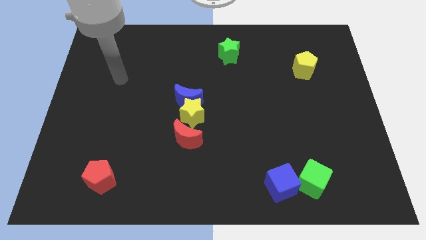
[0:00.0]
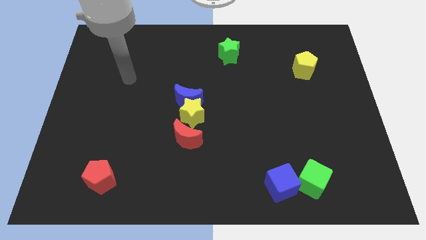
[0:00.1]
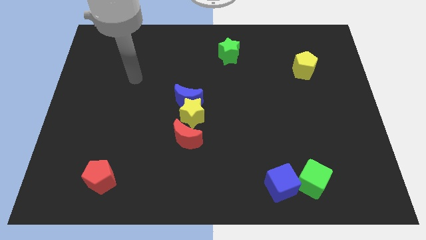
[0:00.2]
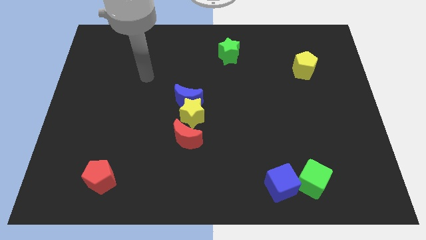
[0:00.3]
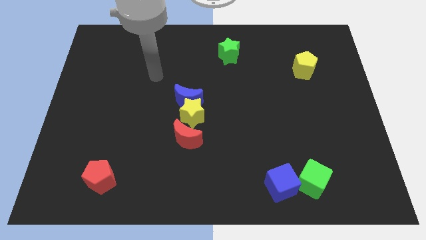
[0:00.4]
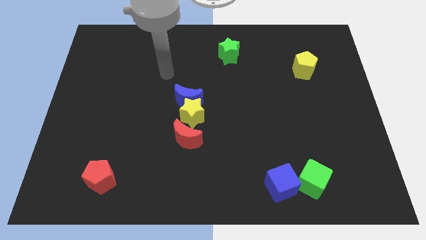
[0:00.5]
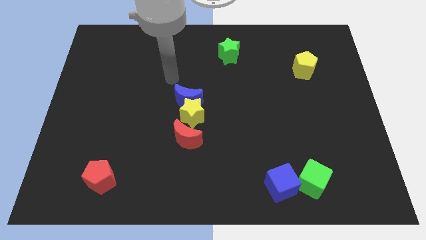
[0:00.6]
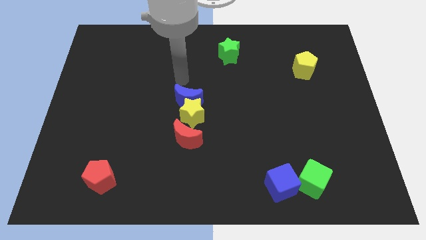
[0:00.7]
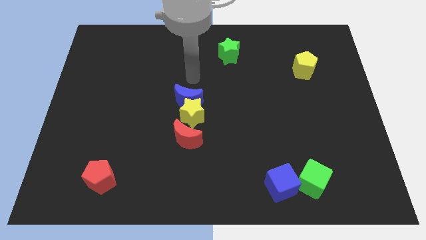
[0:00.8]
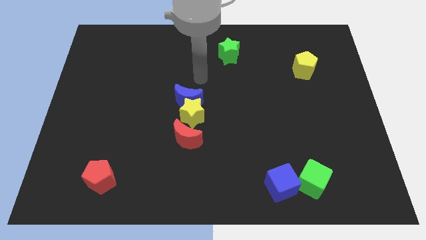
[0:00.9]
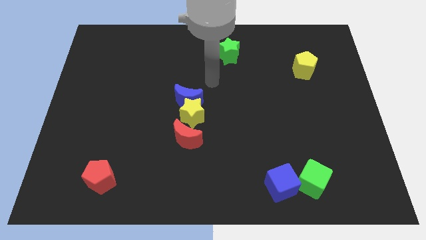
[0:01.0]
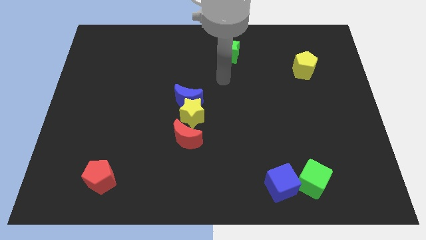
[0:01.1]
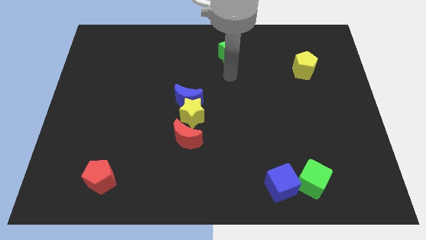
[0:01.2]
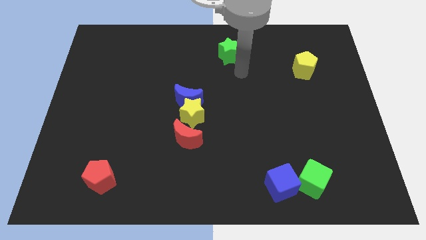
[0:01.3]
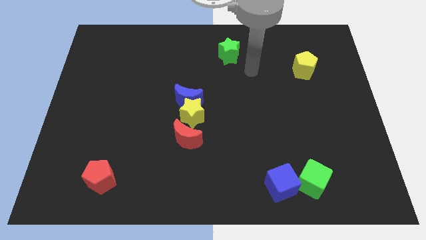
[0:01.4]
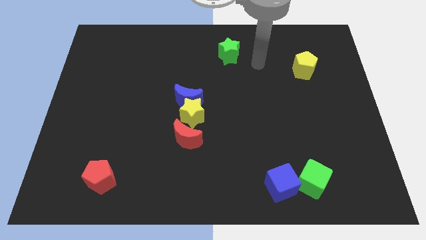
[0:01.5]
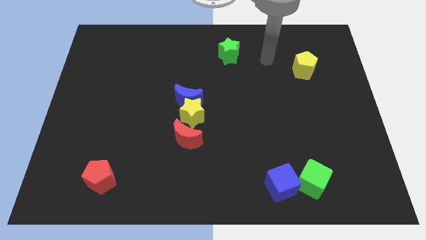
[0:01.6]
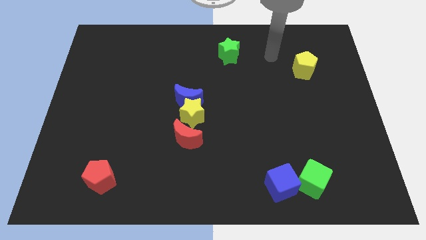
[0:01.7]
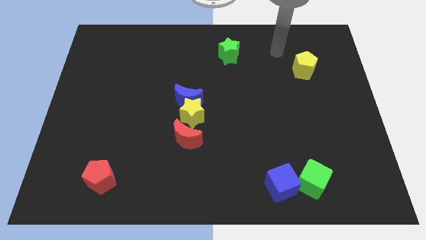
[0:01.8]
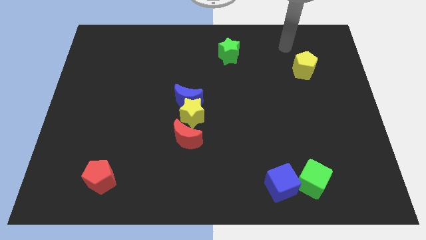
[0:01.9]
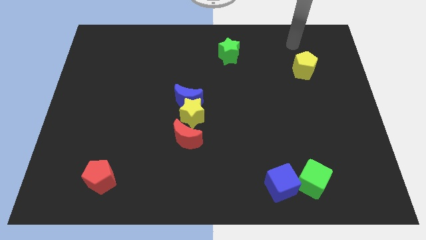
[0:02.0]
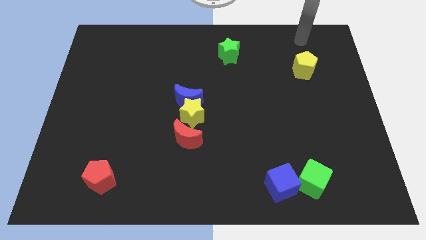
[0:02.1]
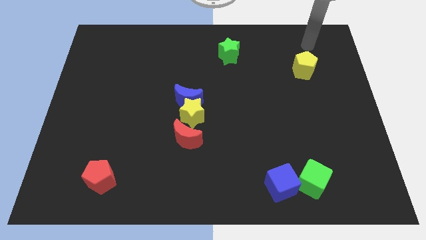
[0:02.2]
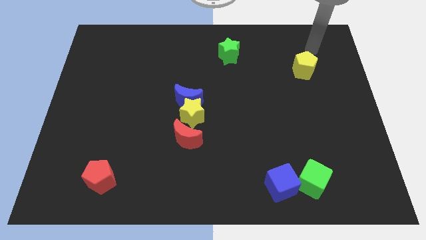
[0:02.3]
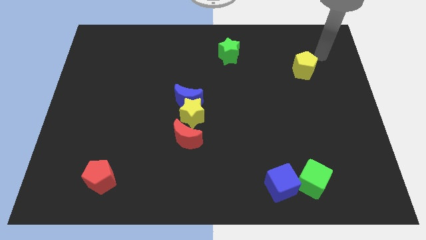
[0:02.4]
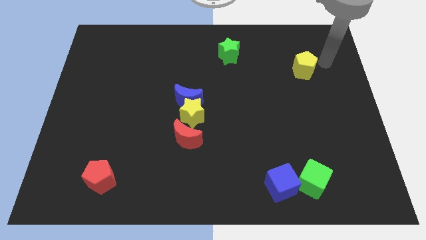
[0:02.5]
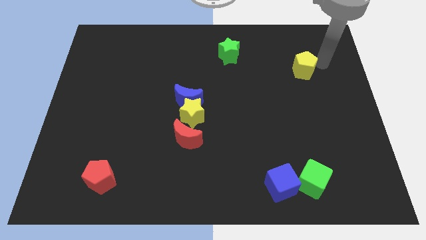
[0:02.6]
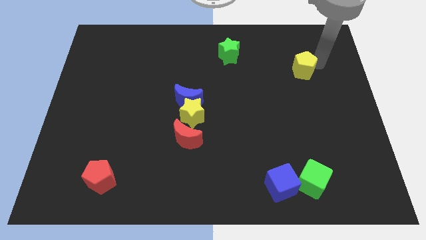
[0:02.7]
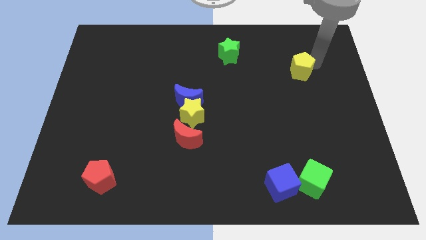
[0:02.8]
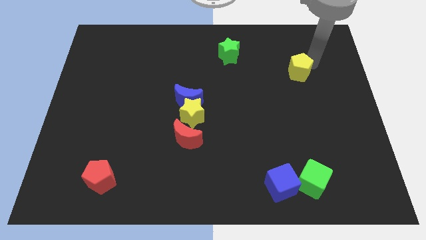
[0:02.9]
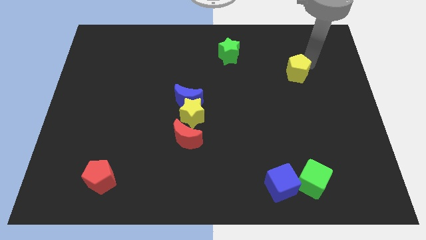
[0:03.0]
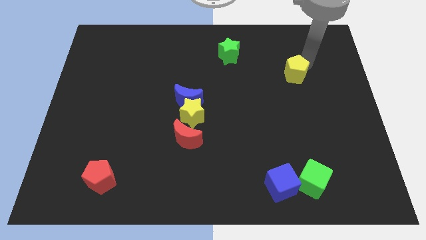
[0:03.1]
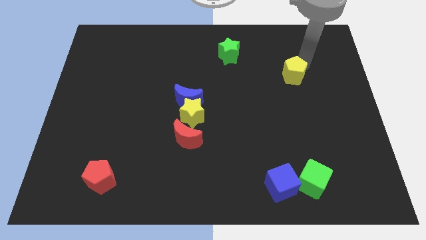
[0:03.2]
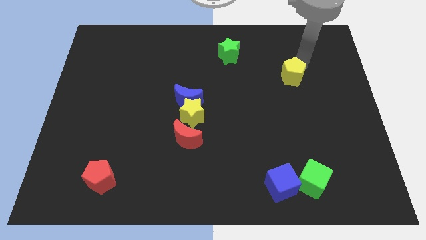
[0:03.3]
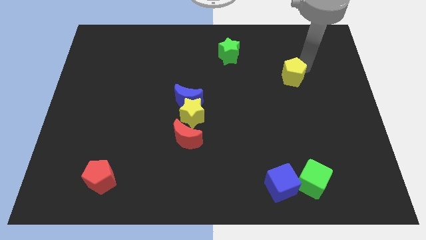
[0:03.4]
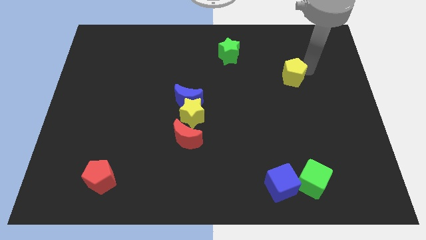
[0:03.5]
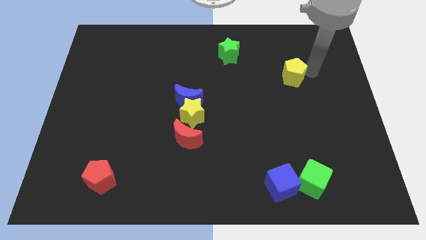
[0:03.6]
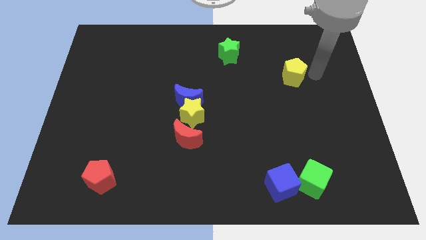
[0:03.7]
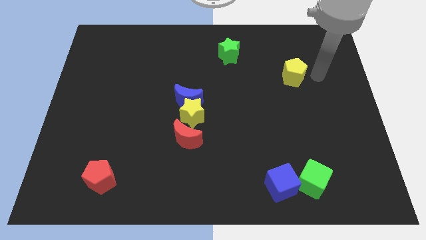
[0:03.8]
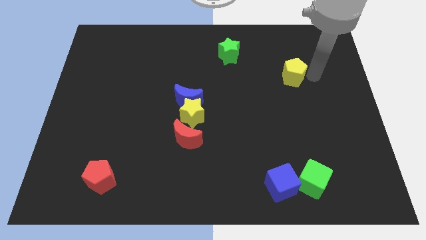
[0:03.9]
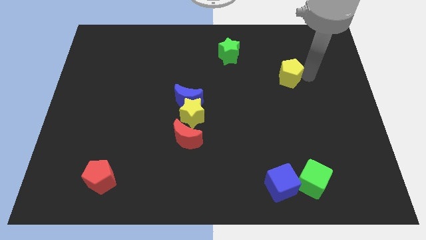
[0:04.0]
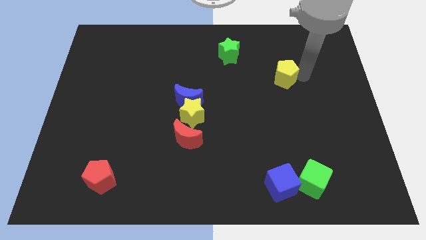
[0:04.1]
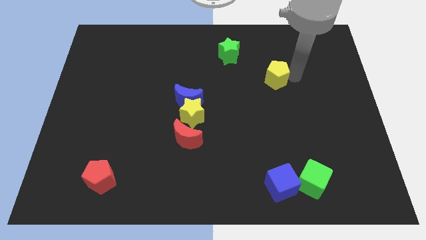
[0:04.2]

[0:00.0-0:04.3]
push the yellow pentagon a little left

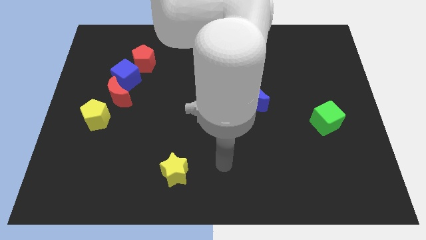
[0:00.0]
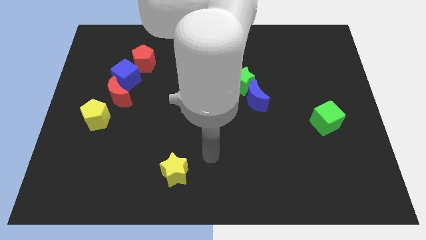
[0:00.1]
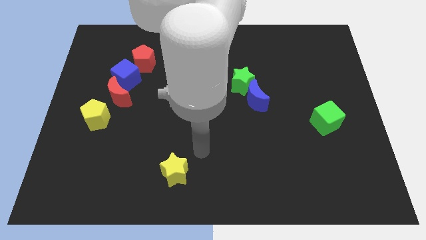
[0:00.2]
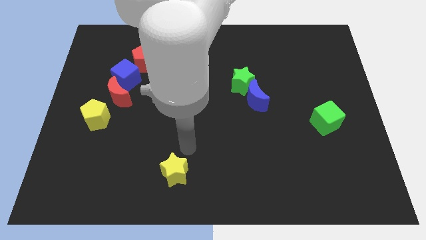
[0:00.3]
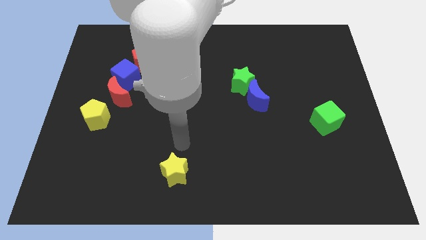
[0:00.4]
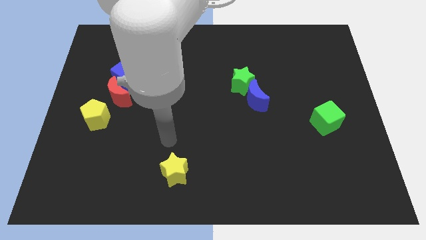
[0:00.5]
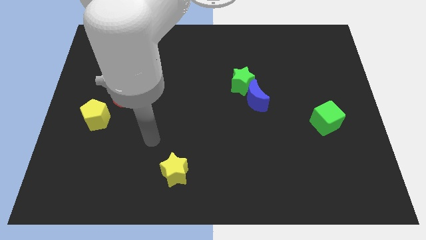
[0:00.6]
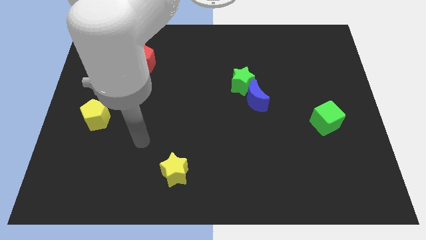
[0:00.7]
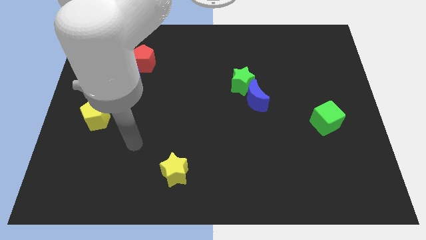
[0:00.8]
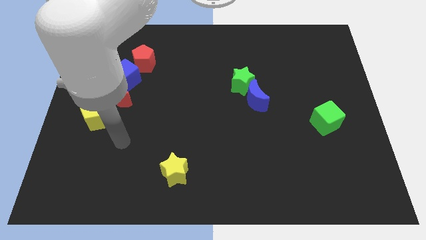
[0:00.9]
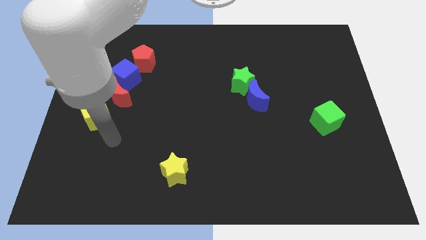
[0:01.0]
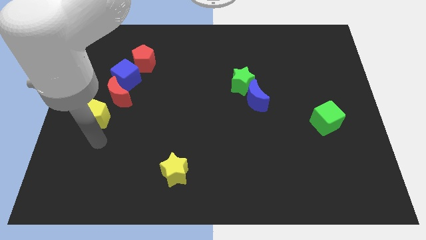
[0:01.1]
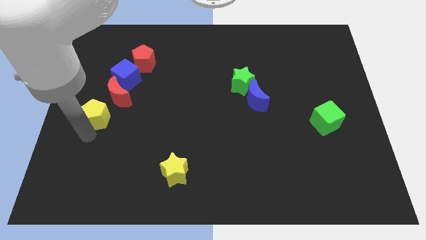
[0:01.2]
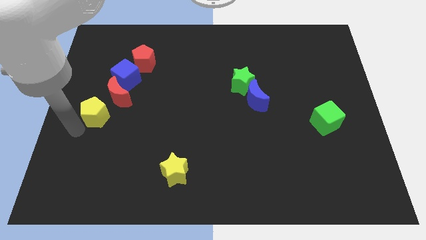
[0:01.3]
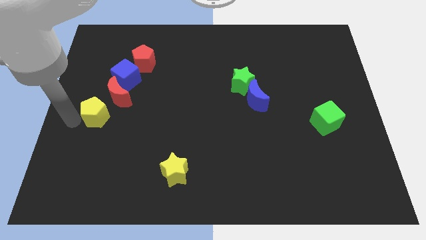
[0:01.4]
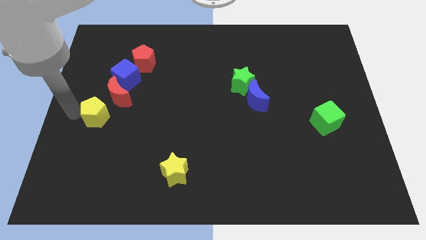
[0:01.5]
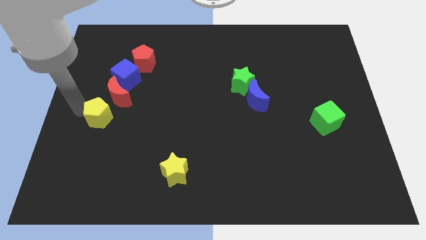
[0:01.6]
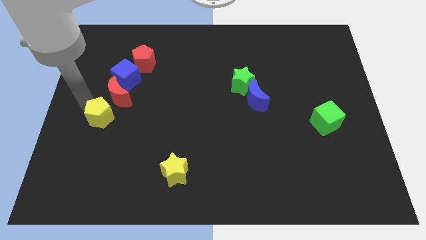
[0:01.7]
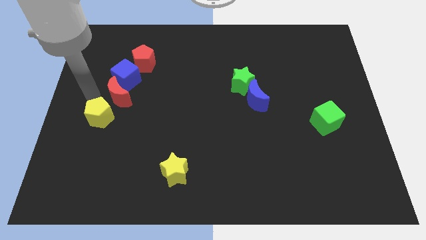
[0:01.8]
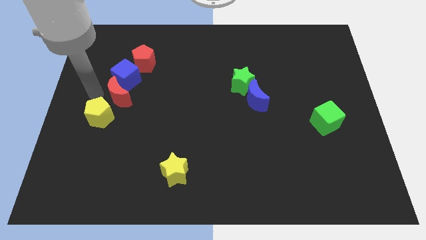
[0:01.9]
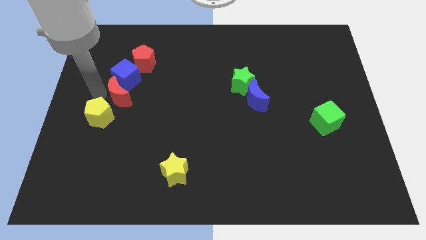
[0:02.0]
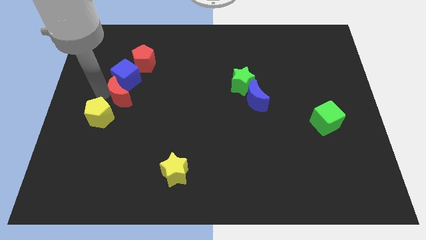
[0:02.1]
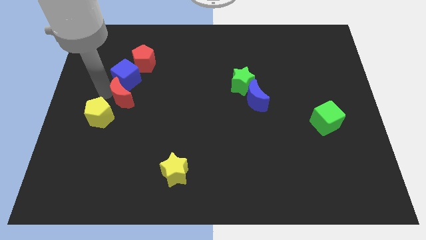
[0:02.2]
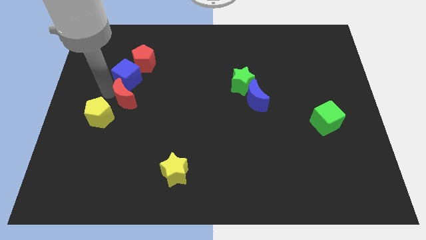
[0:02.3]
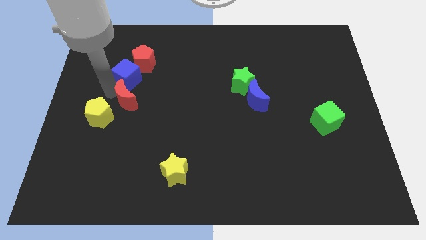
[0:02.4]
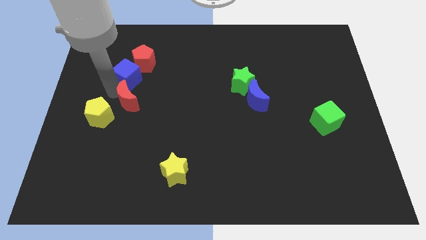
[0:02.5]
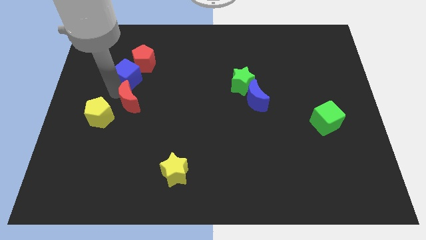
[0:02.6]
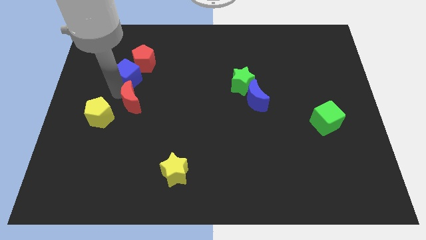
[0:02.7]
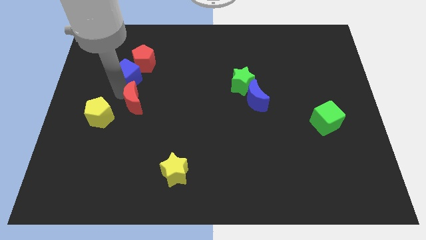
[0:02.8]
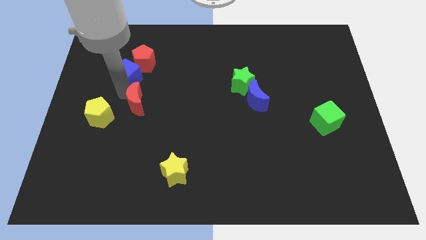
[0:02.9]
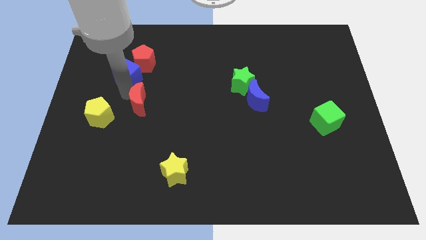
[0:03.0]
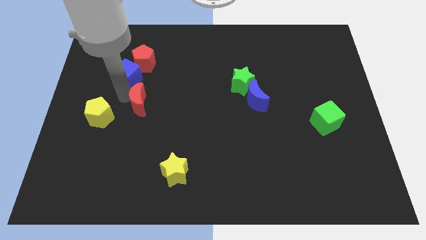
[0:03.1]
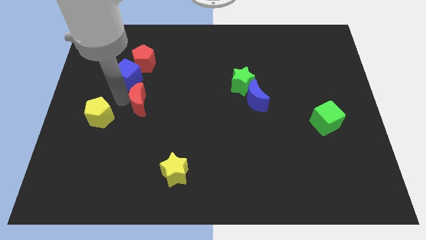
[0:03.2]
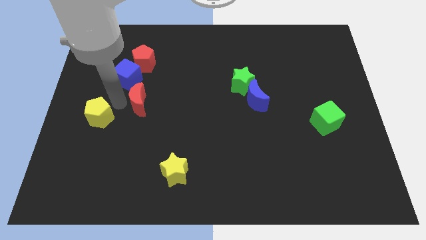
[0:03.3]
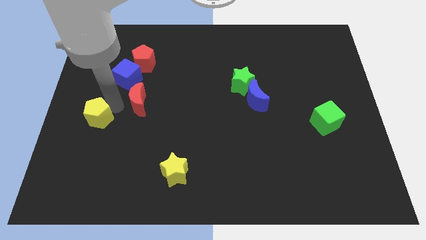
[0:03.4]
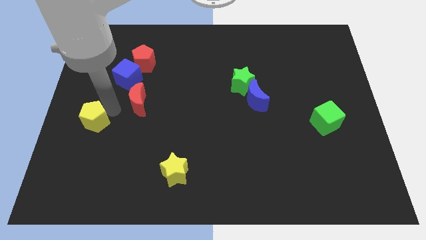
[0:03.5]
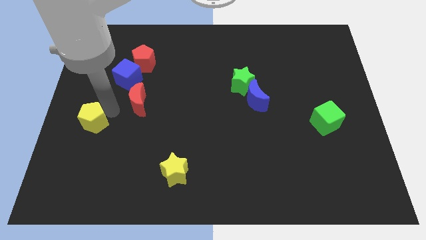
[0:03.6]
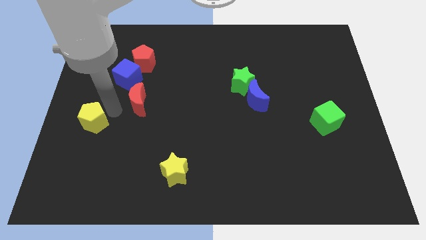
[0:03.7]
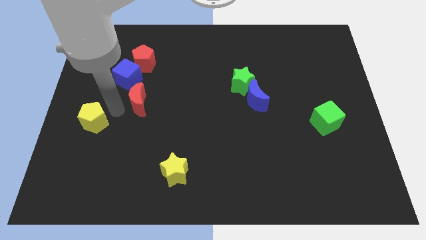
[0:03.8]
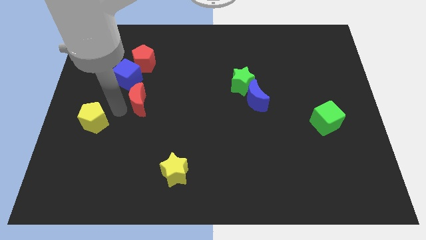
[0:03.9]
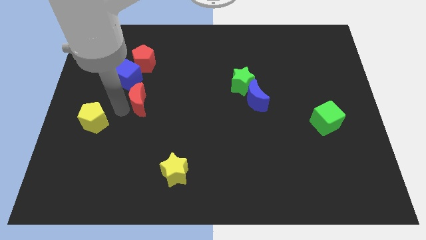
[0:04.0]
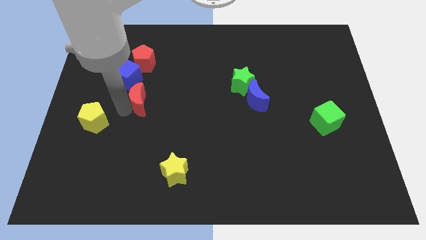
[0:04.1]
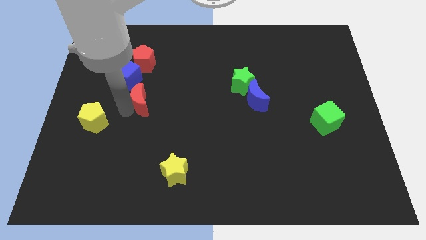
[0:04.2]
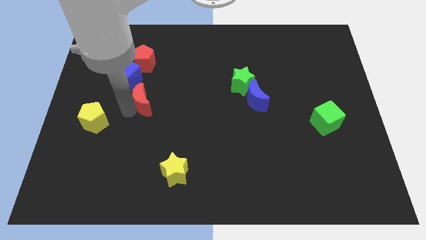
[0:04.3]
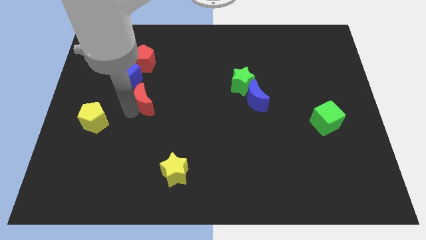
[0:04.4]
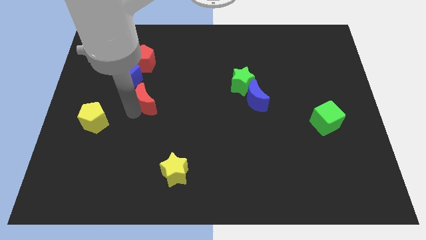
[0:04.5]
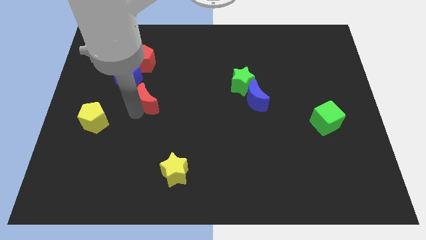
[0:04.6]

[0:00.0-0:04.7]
slide the red moon a little bit to the right
